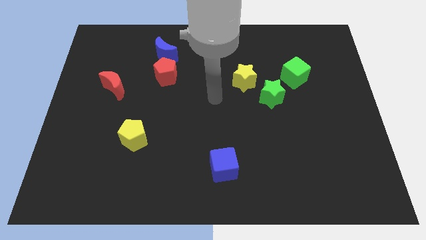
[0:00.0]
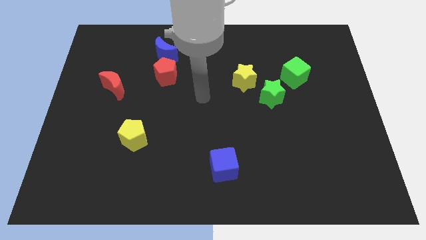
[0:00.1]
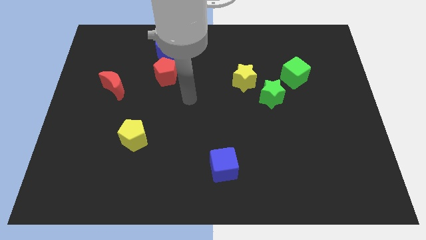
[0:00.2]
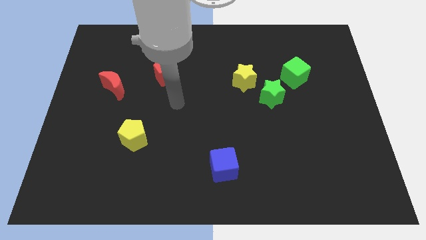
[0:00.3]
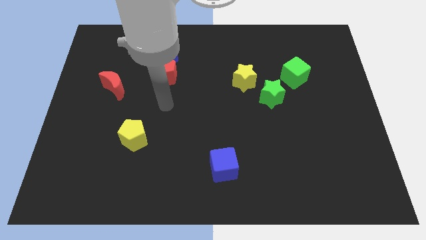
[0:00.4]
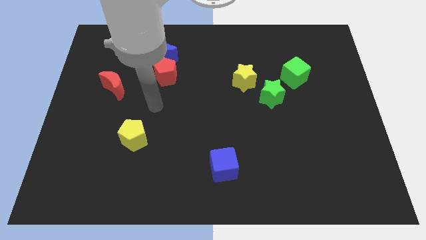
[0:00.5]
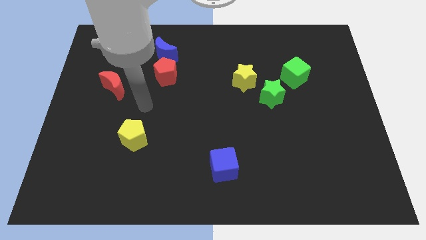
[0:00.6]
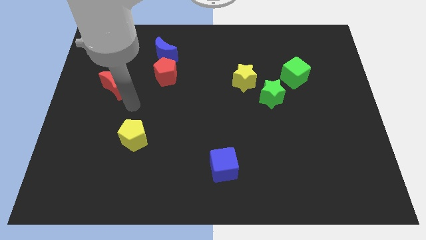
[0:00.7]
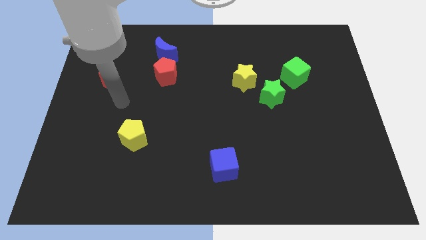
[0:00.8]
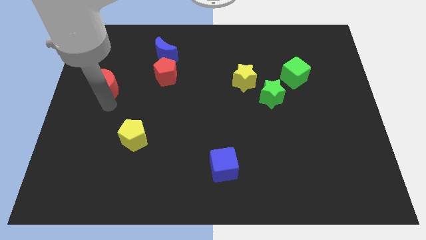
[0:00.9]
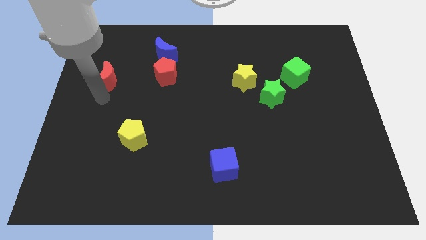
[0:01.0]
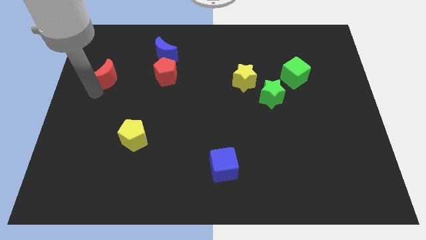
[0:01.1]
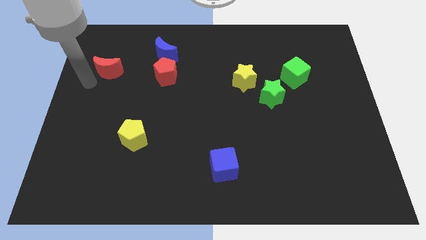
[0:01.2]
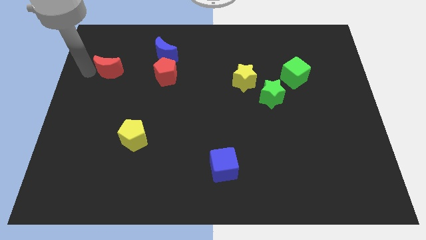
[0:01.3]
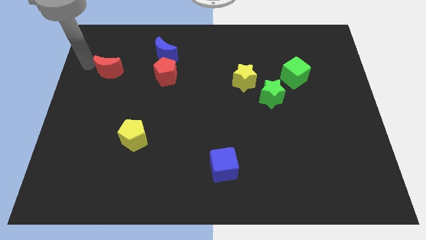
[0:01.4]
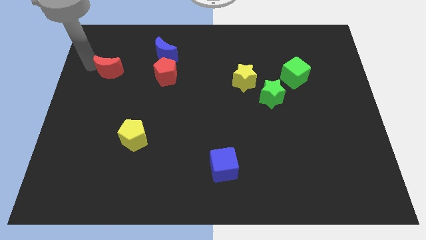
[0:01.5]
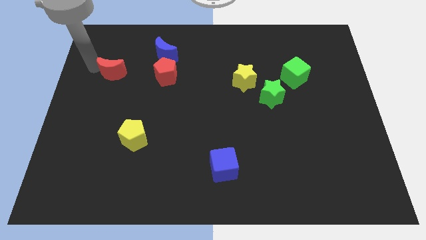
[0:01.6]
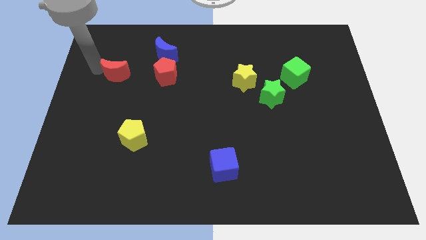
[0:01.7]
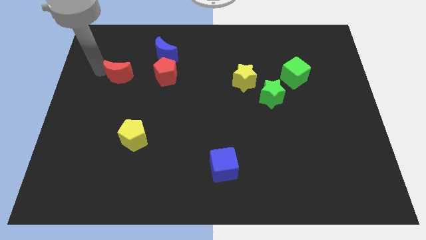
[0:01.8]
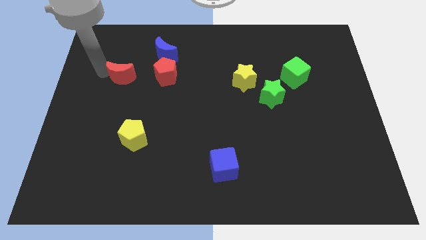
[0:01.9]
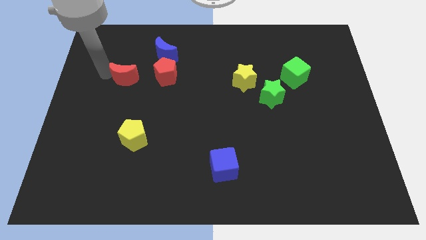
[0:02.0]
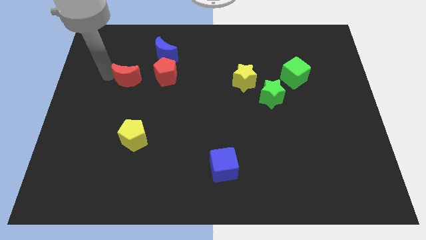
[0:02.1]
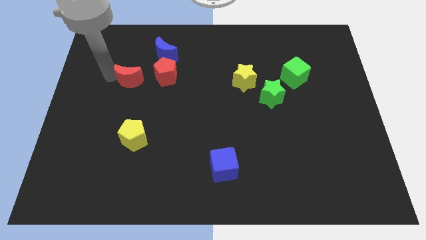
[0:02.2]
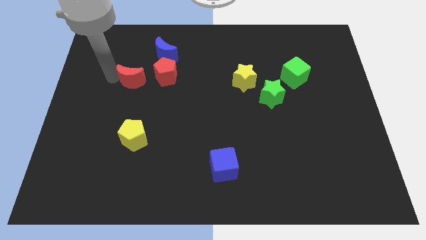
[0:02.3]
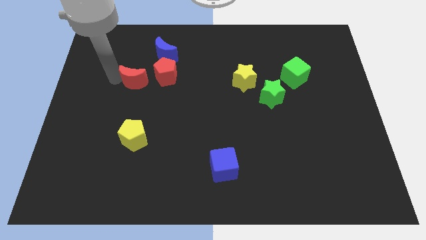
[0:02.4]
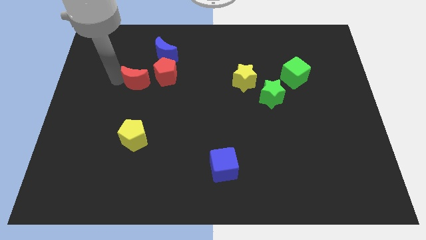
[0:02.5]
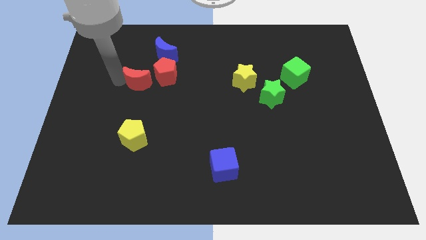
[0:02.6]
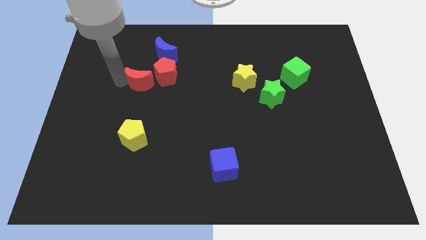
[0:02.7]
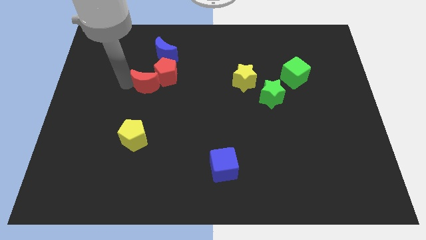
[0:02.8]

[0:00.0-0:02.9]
move the red moon right a little

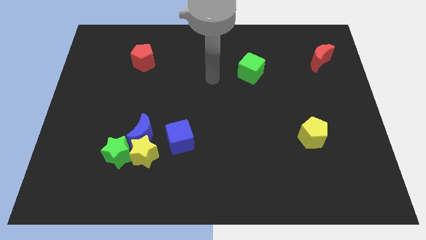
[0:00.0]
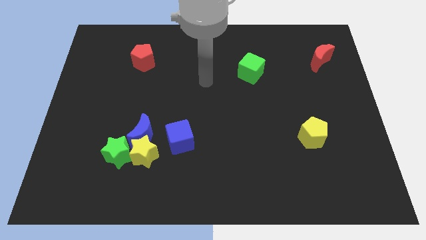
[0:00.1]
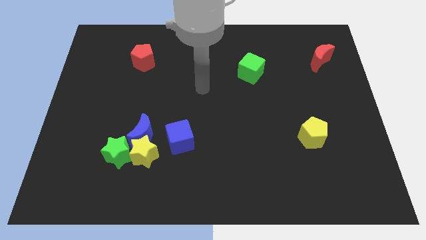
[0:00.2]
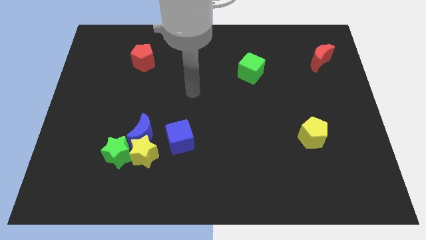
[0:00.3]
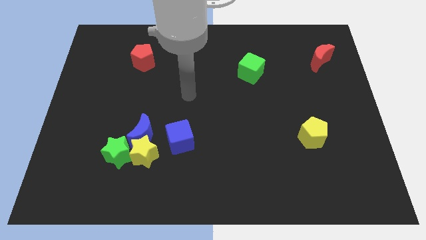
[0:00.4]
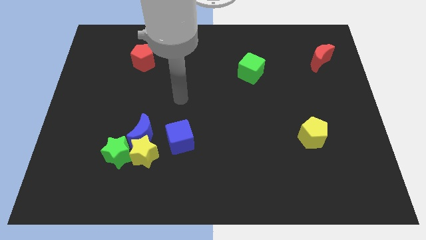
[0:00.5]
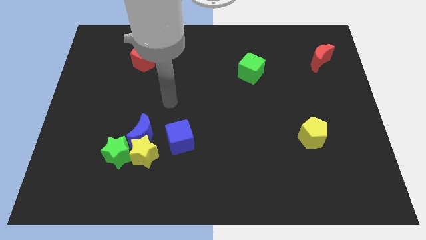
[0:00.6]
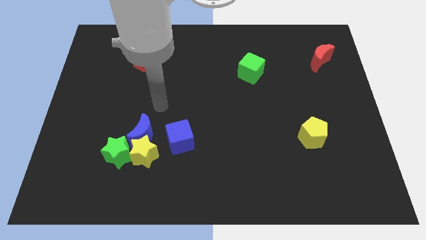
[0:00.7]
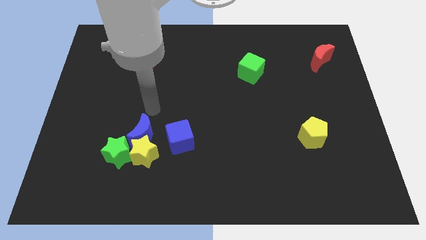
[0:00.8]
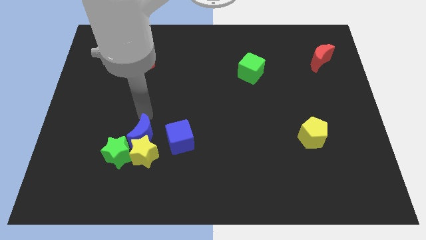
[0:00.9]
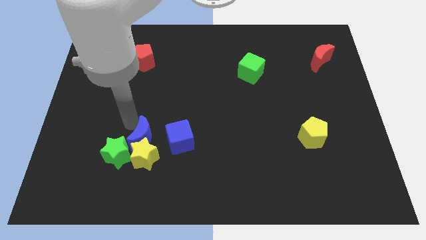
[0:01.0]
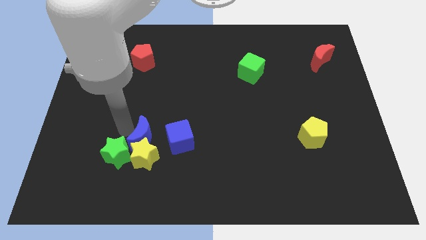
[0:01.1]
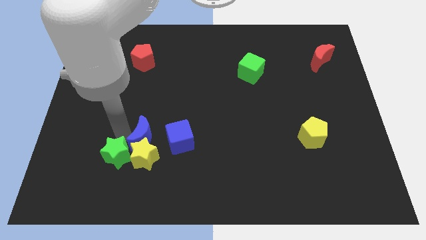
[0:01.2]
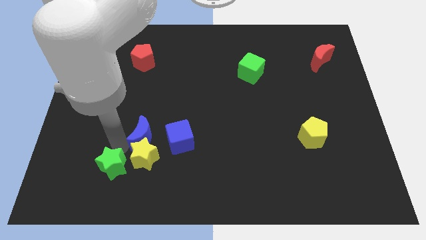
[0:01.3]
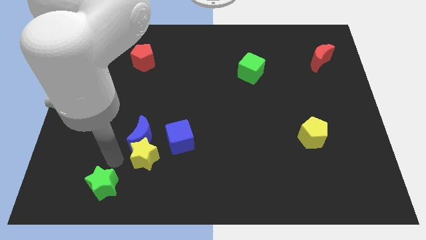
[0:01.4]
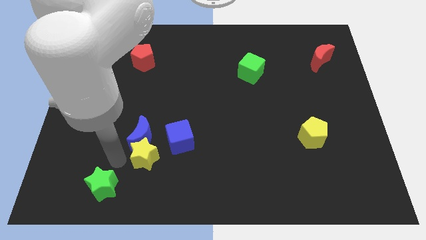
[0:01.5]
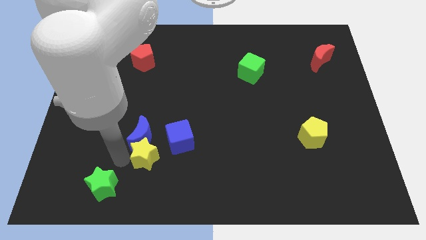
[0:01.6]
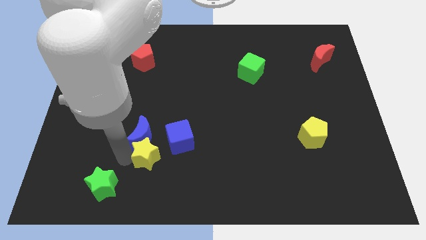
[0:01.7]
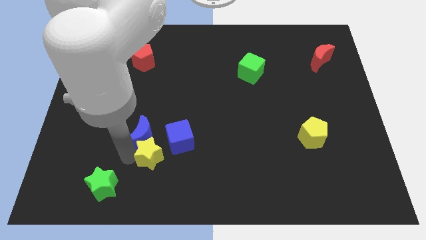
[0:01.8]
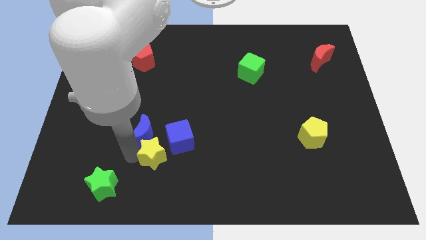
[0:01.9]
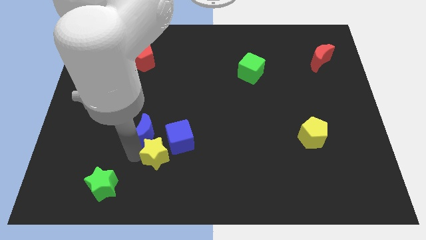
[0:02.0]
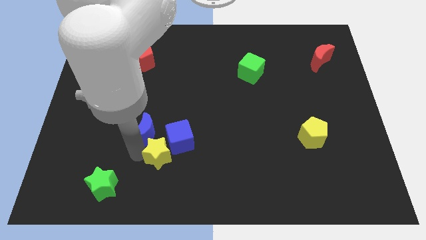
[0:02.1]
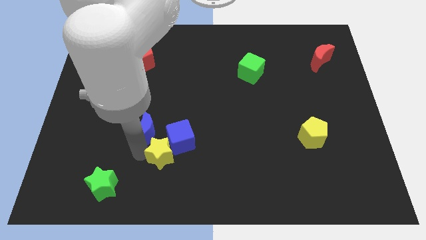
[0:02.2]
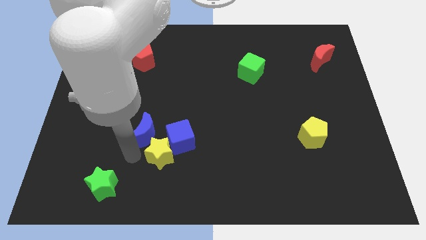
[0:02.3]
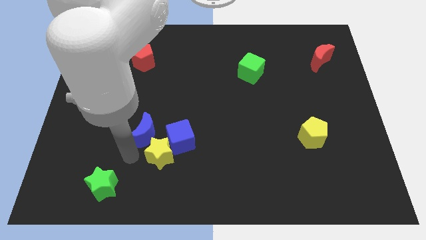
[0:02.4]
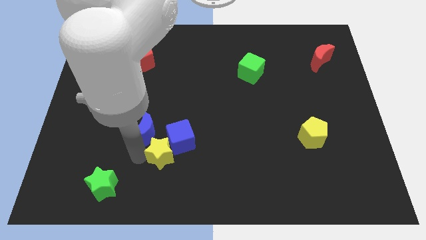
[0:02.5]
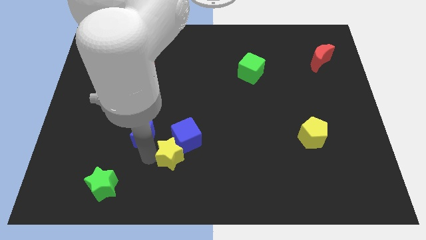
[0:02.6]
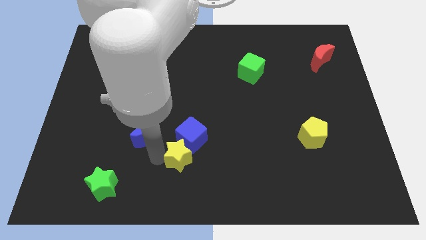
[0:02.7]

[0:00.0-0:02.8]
slide the yellow star right slightly

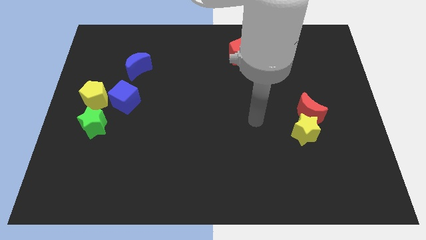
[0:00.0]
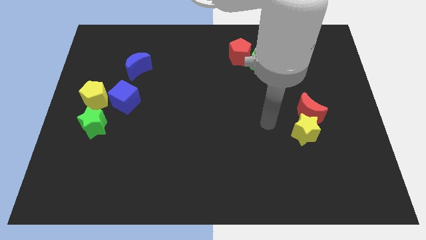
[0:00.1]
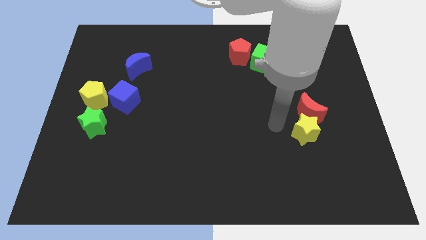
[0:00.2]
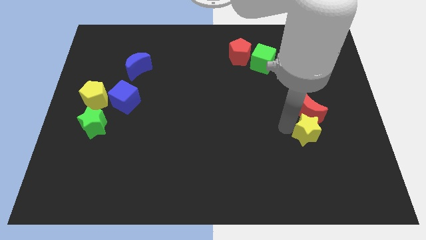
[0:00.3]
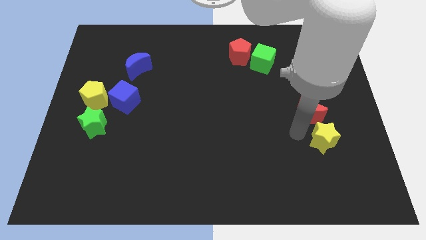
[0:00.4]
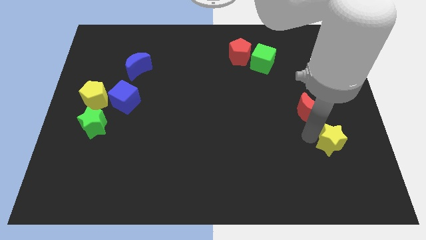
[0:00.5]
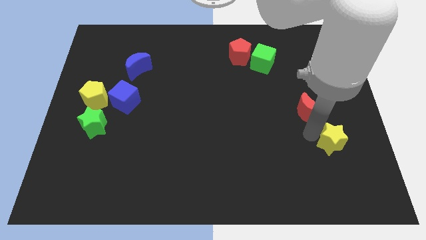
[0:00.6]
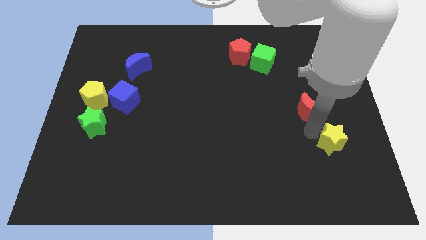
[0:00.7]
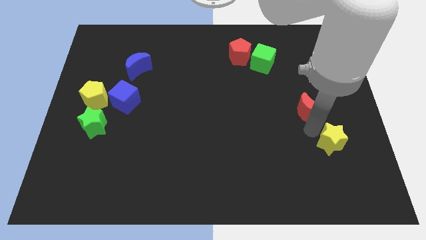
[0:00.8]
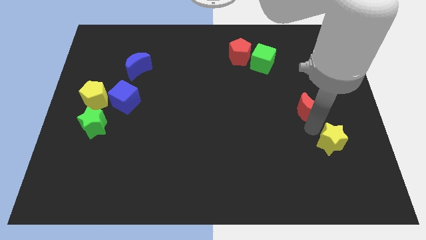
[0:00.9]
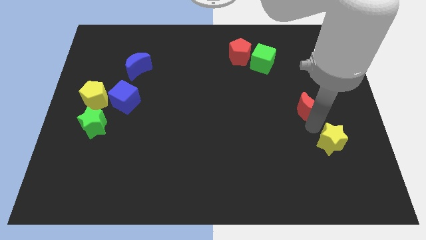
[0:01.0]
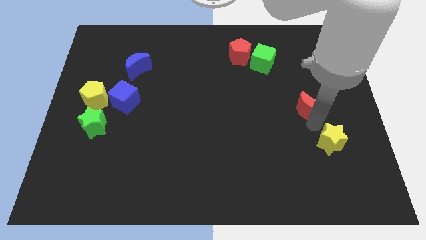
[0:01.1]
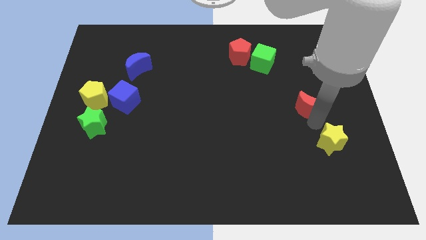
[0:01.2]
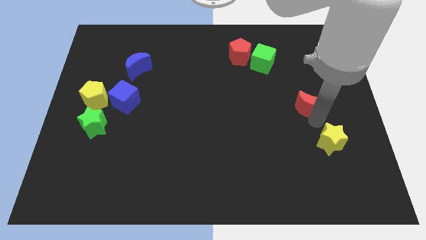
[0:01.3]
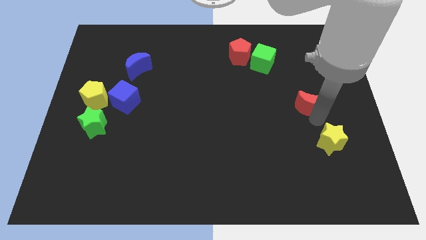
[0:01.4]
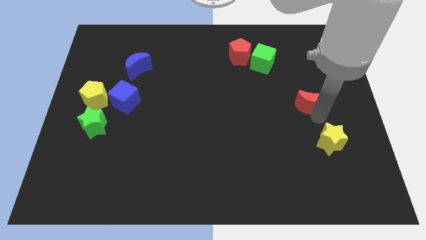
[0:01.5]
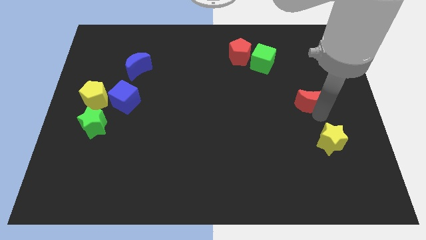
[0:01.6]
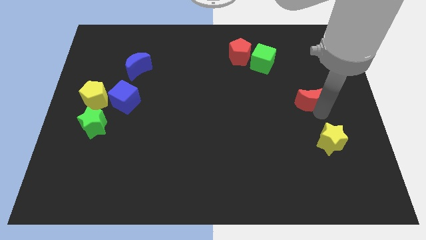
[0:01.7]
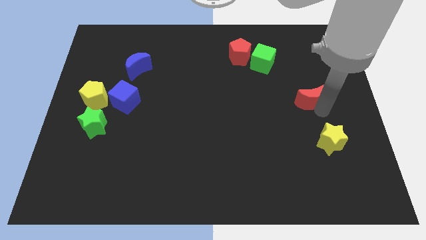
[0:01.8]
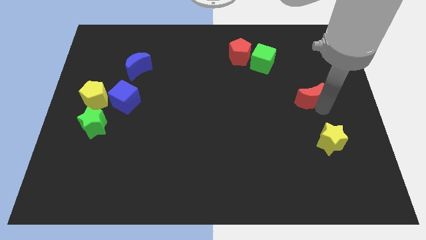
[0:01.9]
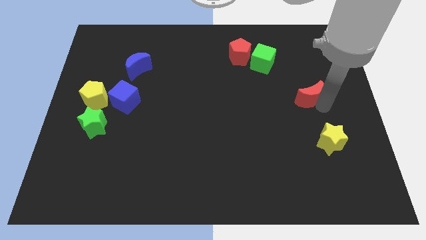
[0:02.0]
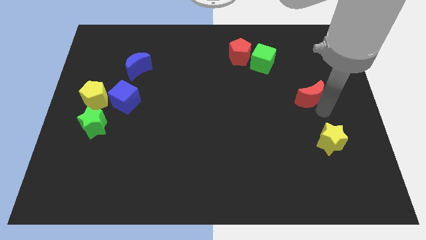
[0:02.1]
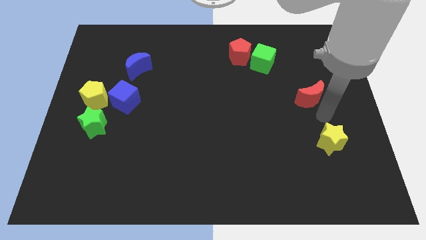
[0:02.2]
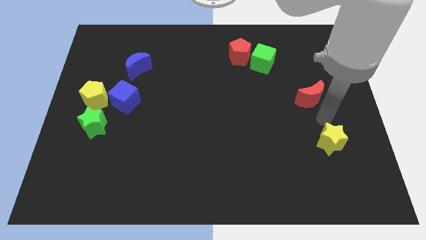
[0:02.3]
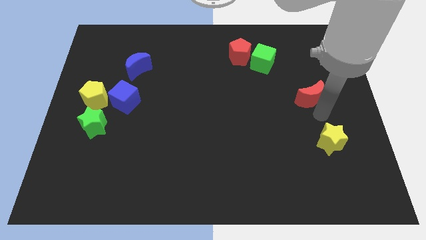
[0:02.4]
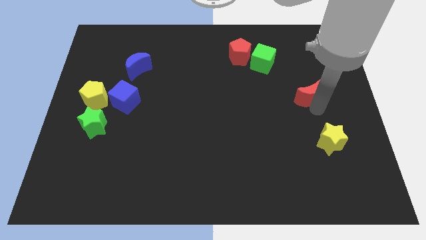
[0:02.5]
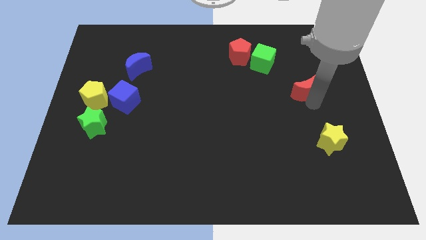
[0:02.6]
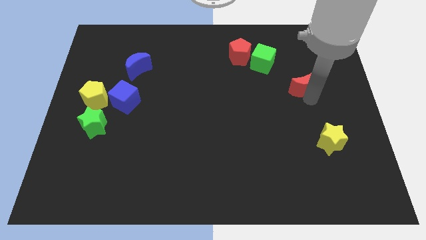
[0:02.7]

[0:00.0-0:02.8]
slightly slide the red moon upwards
